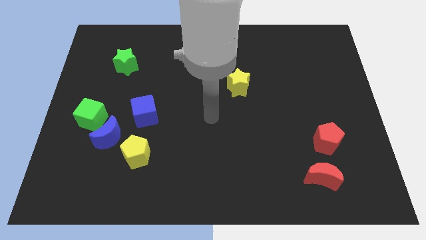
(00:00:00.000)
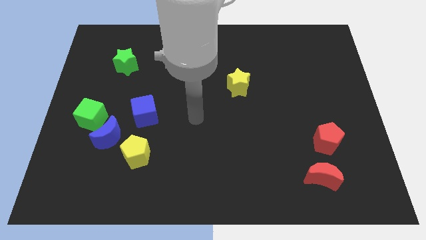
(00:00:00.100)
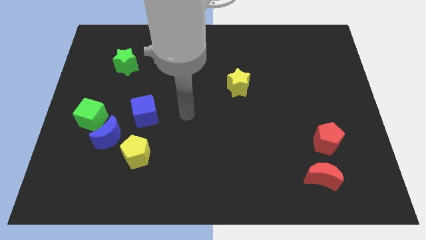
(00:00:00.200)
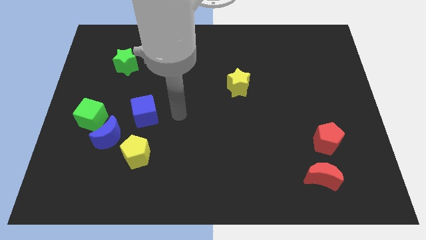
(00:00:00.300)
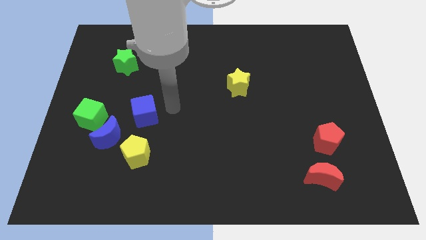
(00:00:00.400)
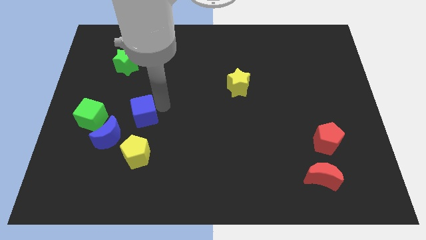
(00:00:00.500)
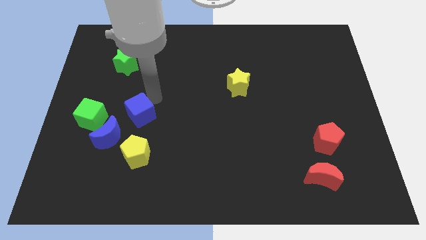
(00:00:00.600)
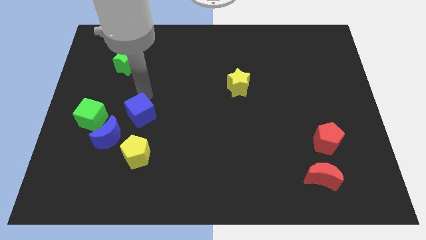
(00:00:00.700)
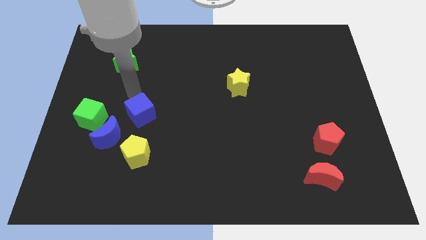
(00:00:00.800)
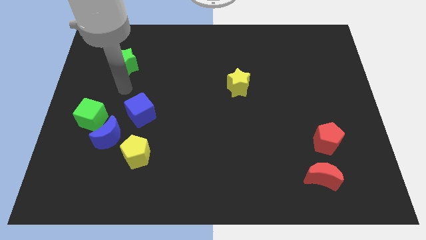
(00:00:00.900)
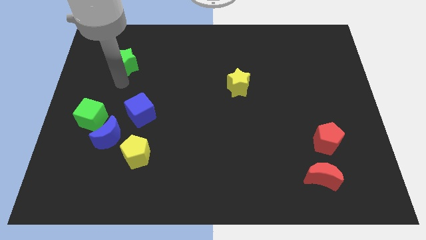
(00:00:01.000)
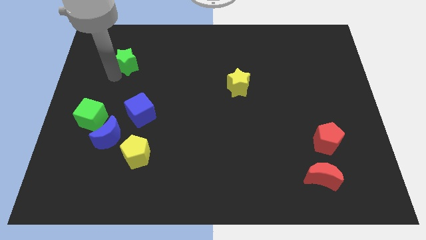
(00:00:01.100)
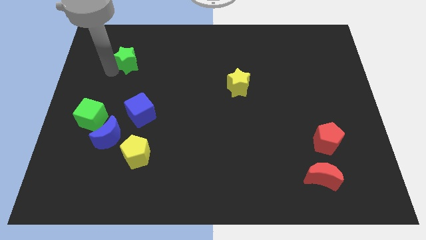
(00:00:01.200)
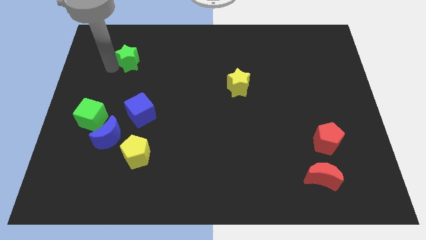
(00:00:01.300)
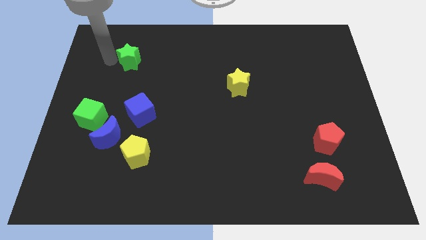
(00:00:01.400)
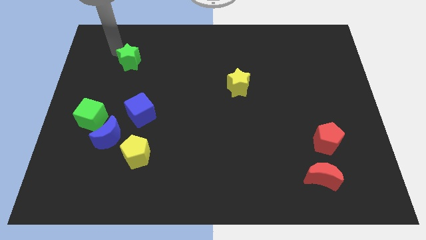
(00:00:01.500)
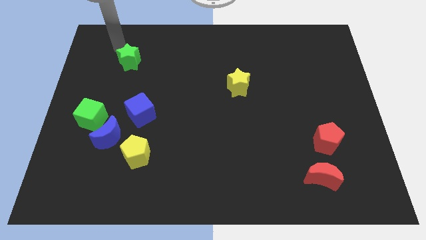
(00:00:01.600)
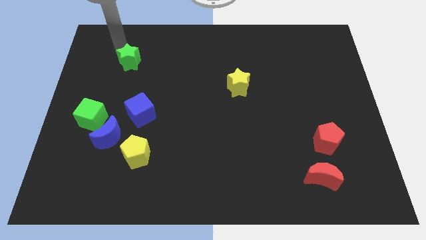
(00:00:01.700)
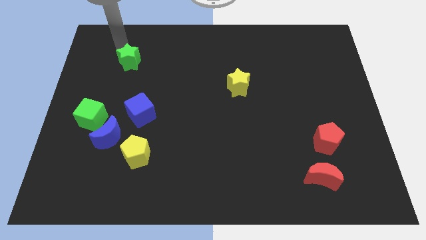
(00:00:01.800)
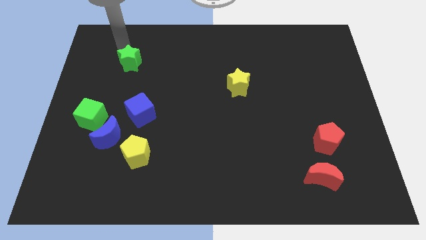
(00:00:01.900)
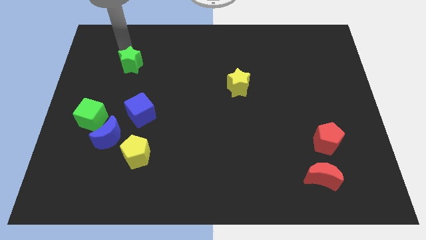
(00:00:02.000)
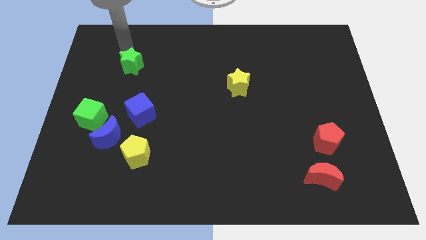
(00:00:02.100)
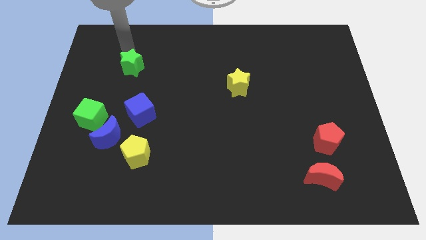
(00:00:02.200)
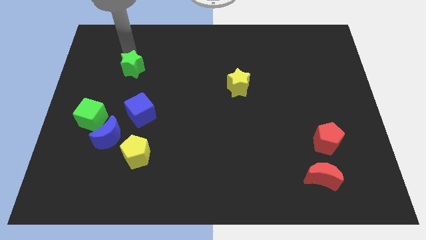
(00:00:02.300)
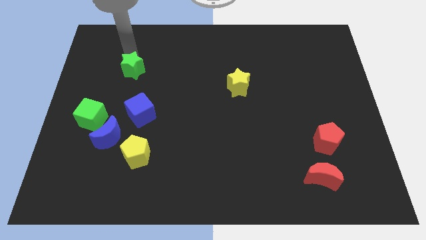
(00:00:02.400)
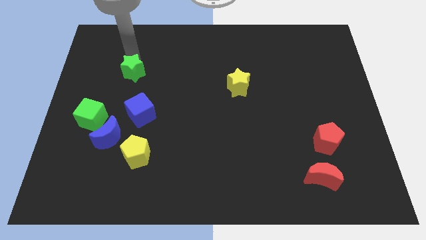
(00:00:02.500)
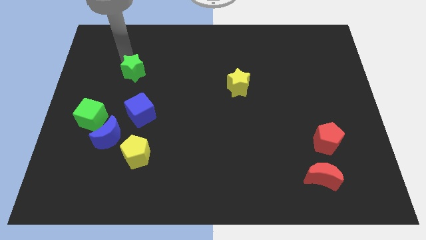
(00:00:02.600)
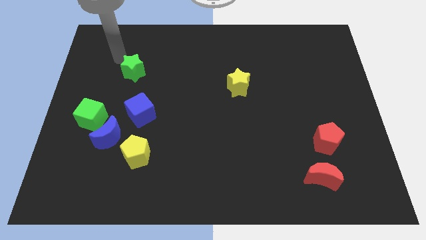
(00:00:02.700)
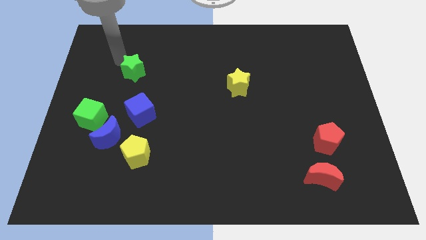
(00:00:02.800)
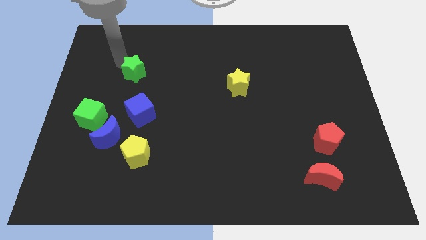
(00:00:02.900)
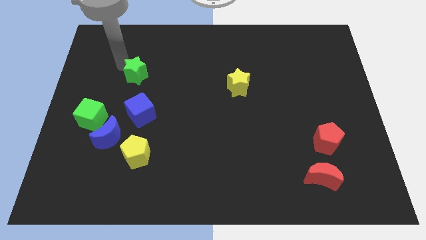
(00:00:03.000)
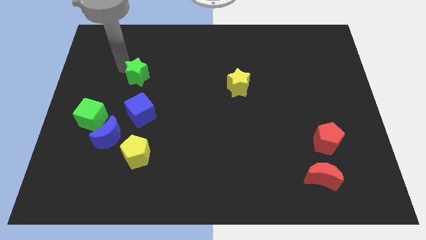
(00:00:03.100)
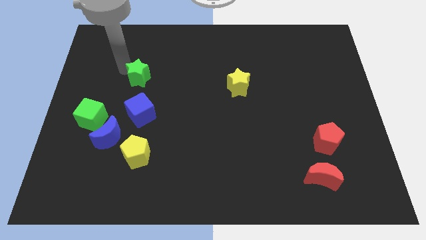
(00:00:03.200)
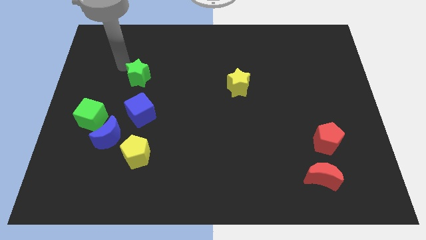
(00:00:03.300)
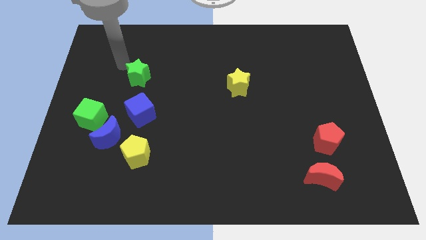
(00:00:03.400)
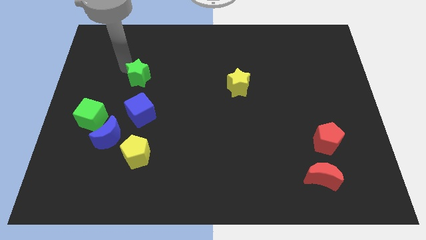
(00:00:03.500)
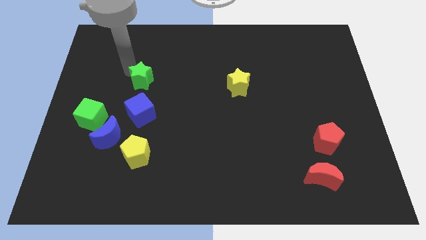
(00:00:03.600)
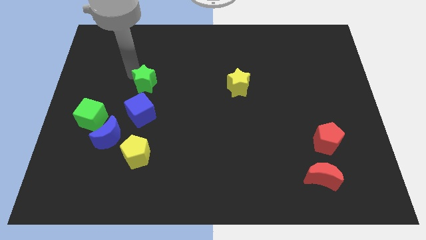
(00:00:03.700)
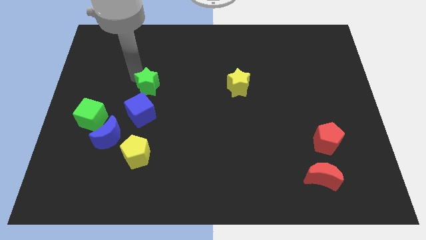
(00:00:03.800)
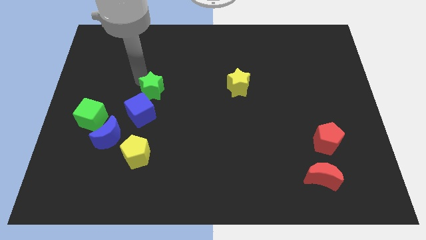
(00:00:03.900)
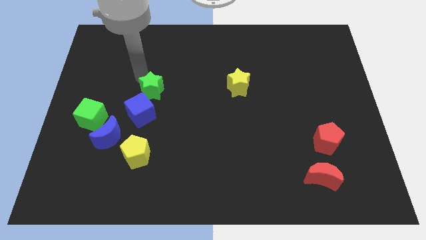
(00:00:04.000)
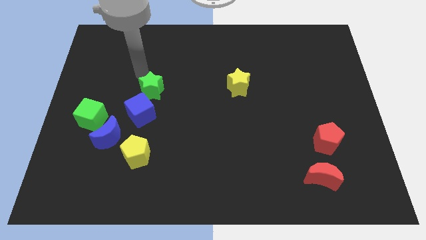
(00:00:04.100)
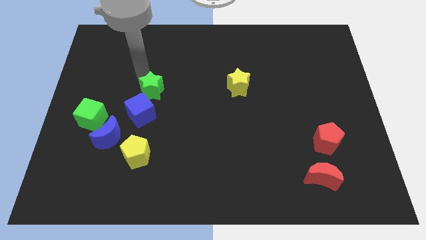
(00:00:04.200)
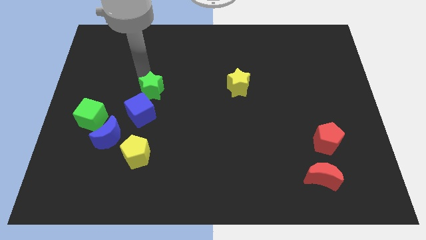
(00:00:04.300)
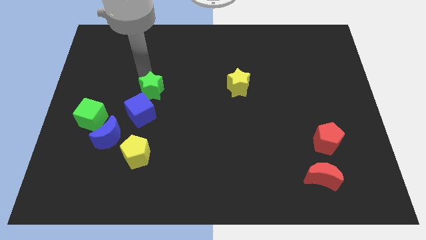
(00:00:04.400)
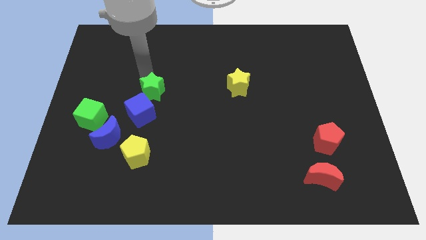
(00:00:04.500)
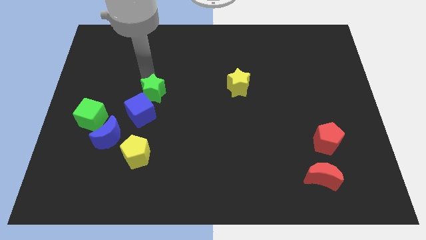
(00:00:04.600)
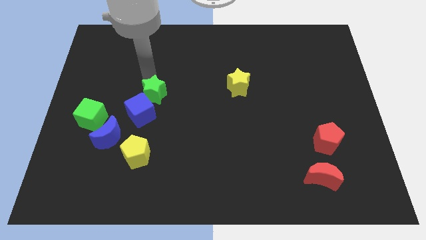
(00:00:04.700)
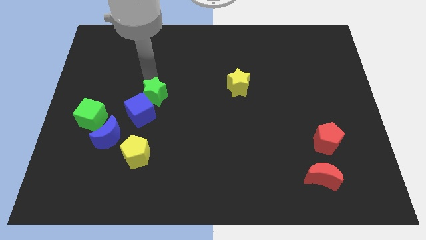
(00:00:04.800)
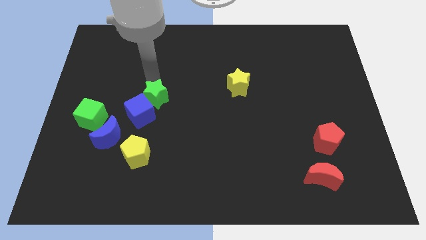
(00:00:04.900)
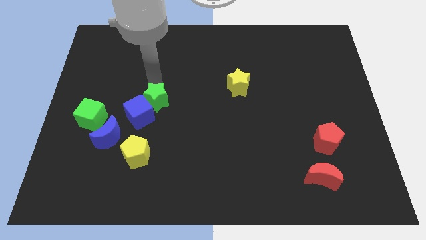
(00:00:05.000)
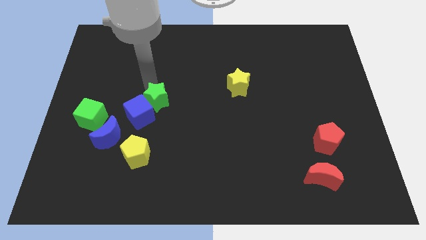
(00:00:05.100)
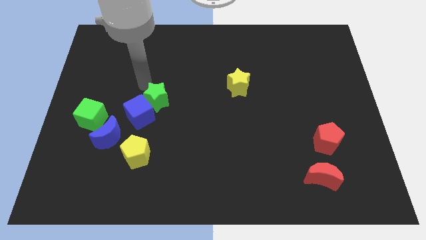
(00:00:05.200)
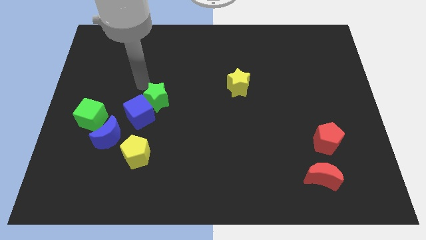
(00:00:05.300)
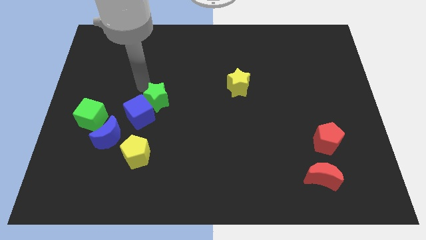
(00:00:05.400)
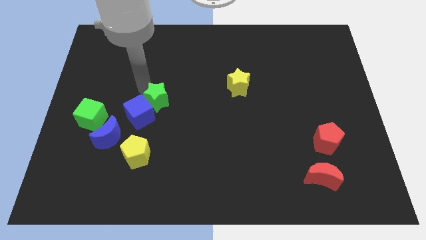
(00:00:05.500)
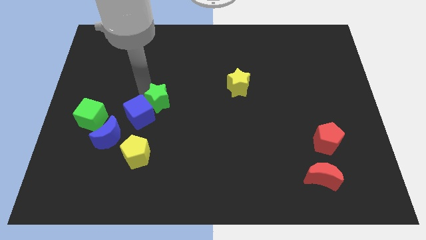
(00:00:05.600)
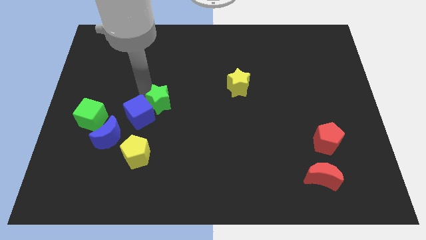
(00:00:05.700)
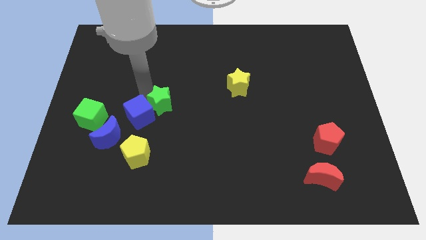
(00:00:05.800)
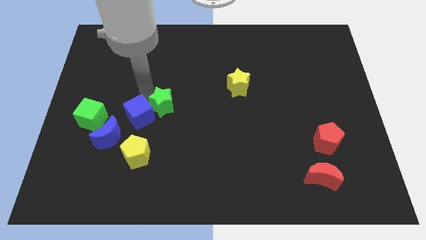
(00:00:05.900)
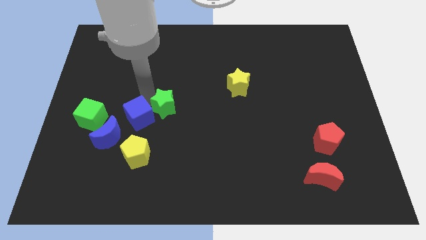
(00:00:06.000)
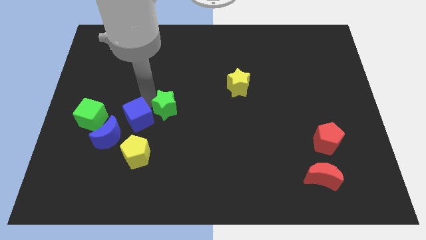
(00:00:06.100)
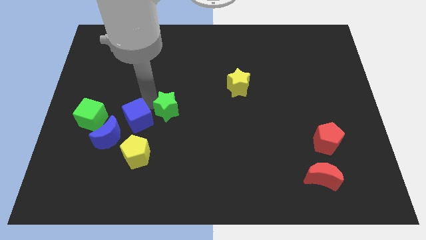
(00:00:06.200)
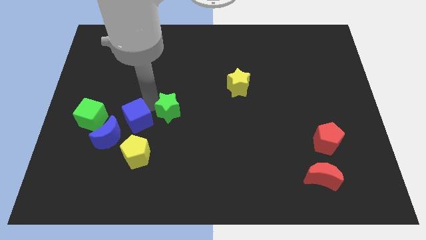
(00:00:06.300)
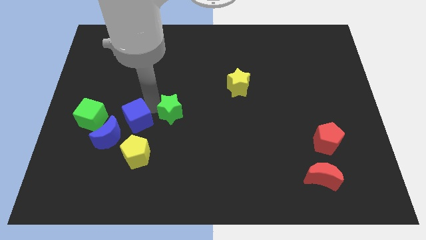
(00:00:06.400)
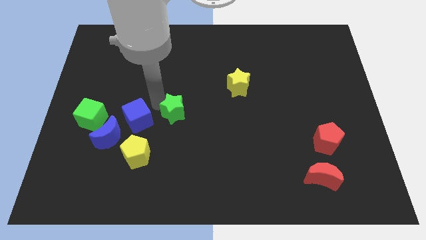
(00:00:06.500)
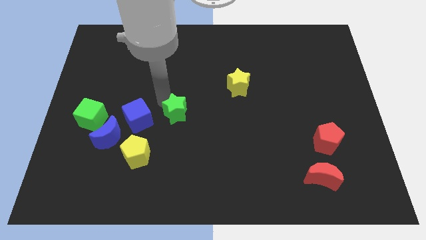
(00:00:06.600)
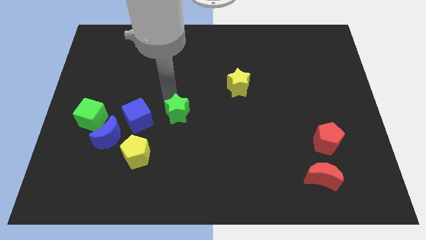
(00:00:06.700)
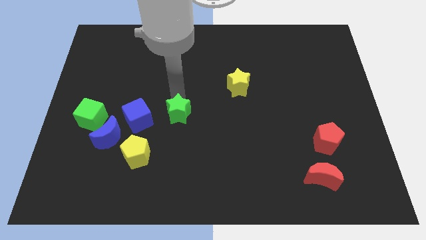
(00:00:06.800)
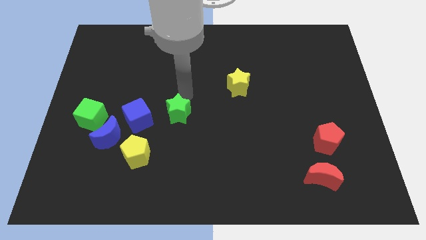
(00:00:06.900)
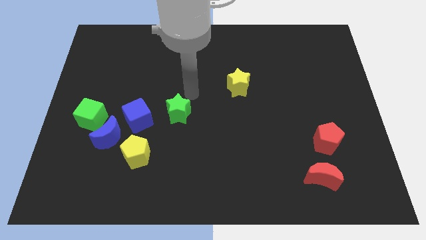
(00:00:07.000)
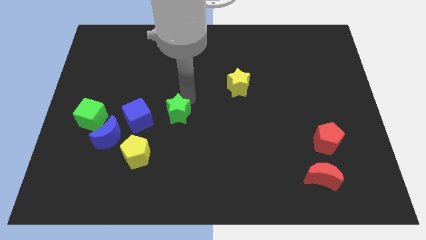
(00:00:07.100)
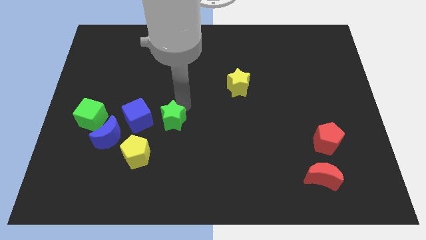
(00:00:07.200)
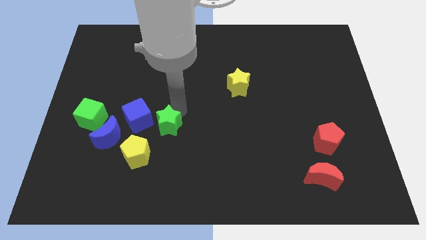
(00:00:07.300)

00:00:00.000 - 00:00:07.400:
move the green star diagonally down and to the right of the blue cube
